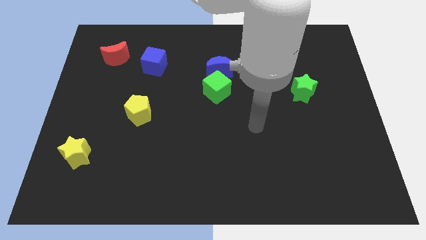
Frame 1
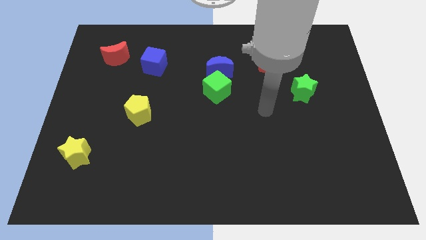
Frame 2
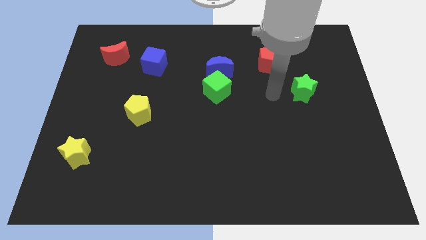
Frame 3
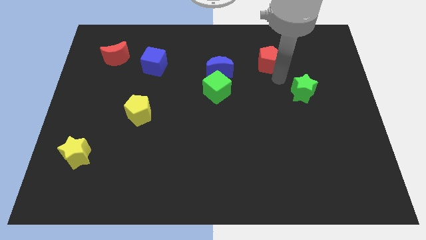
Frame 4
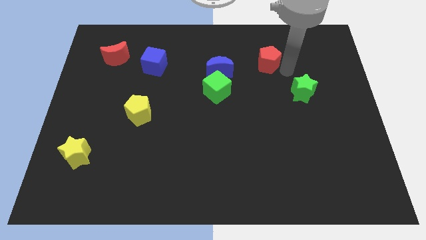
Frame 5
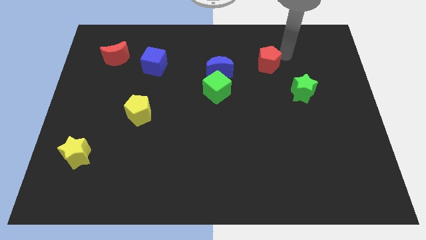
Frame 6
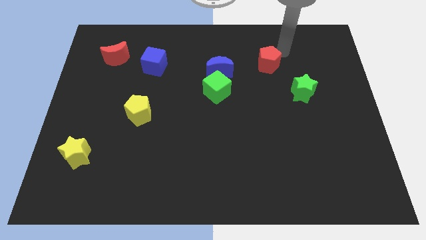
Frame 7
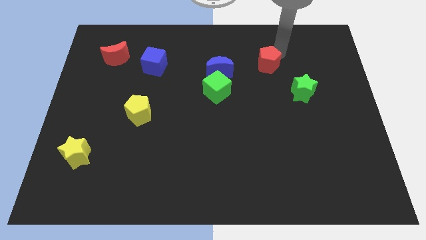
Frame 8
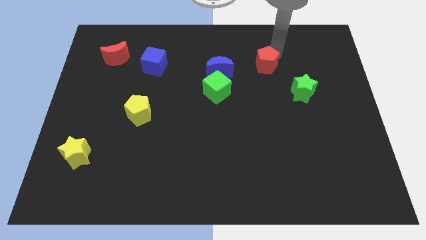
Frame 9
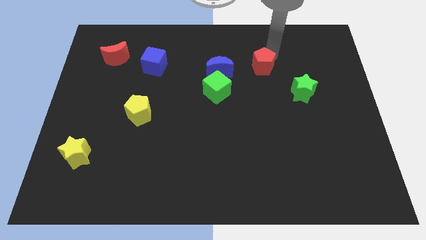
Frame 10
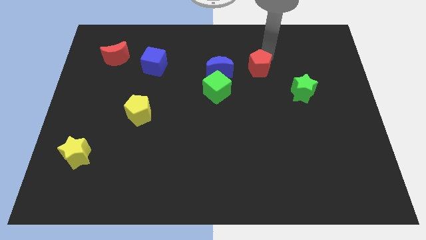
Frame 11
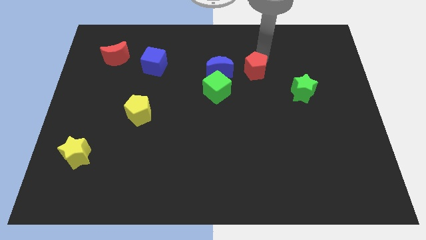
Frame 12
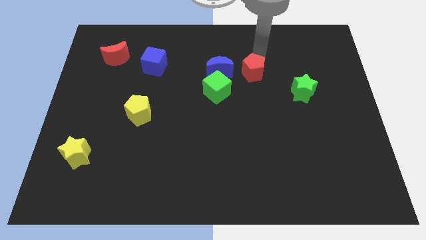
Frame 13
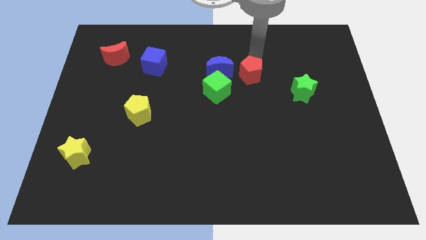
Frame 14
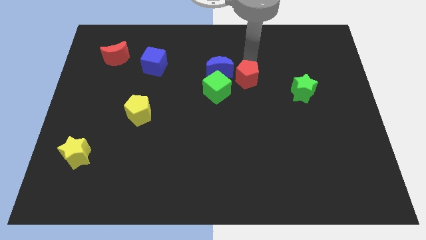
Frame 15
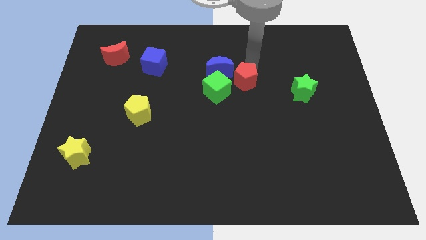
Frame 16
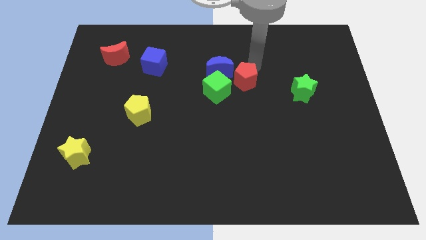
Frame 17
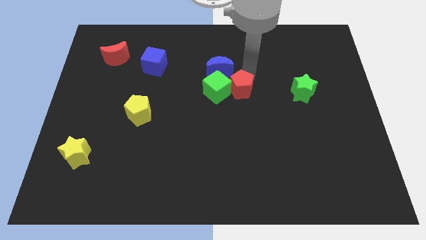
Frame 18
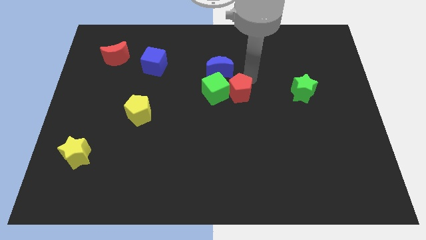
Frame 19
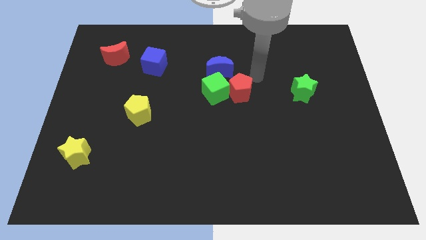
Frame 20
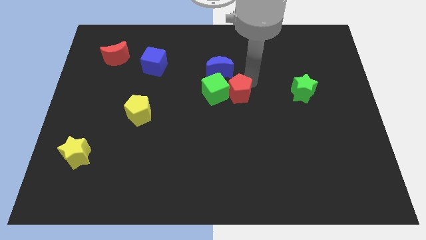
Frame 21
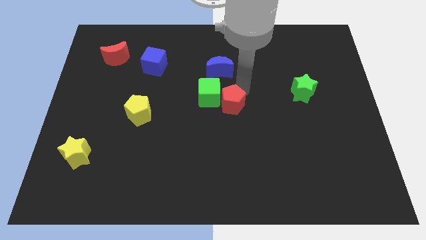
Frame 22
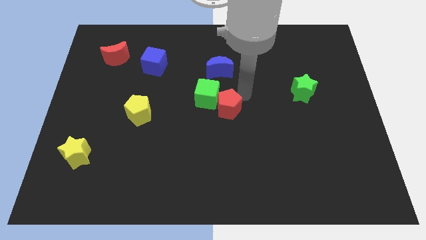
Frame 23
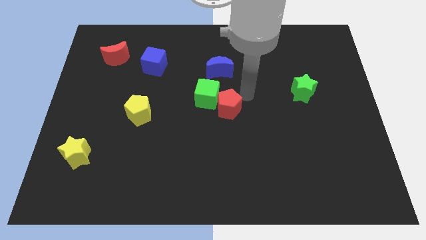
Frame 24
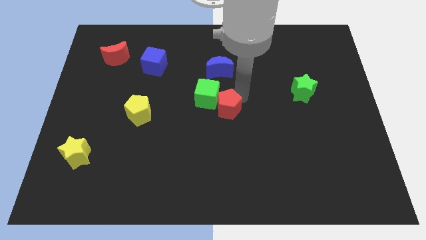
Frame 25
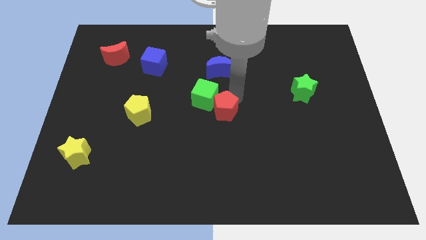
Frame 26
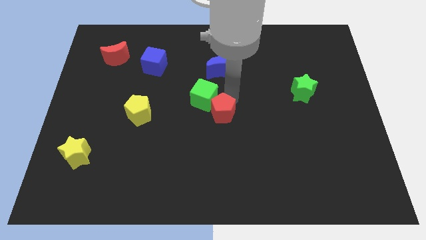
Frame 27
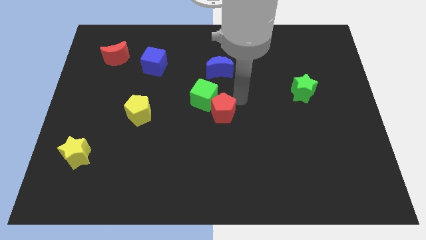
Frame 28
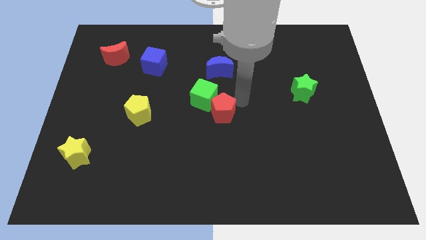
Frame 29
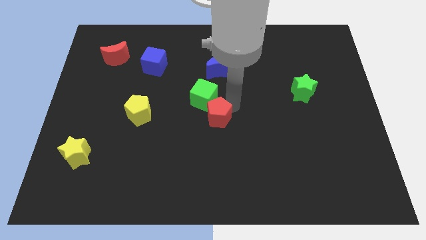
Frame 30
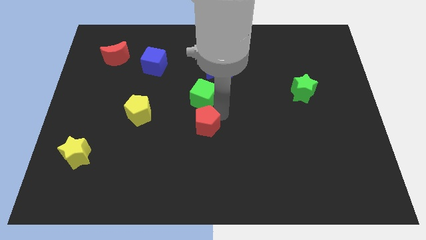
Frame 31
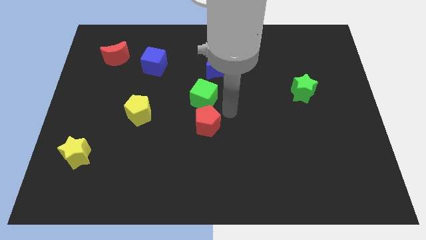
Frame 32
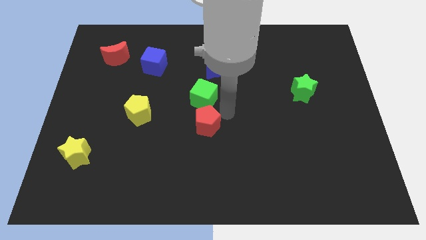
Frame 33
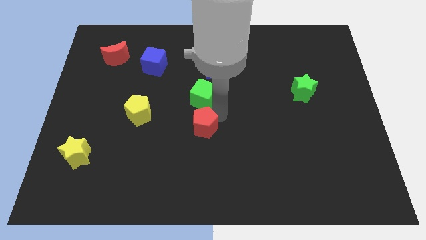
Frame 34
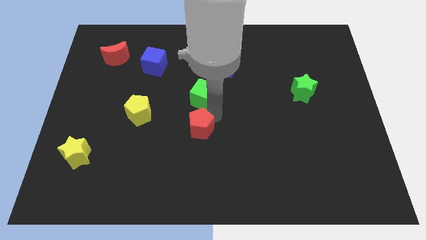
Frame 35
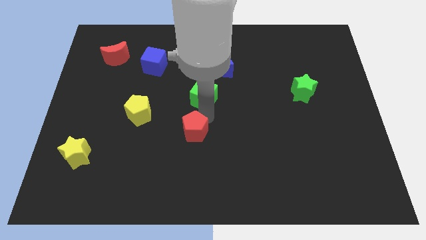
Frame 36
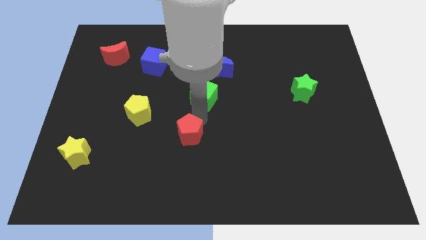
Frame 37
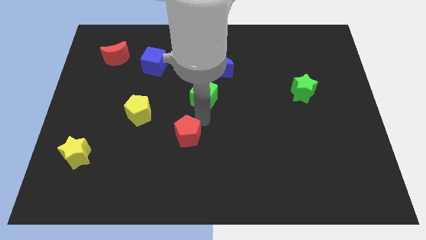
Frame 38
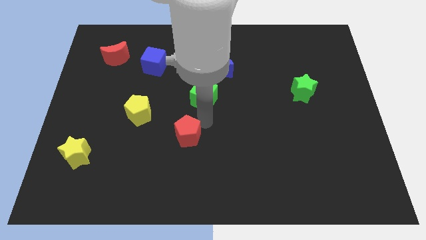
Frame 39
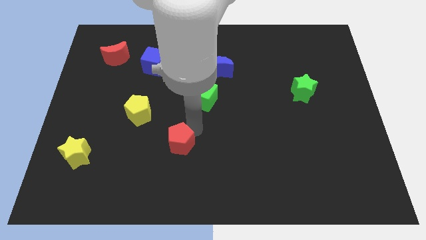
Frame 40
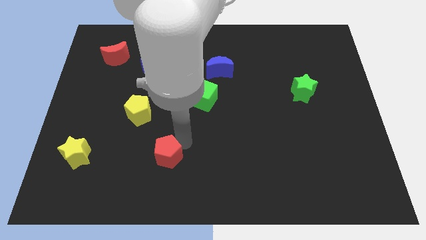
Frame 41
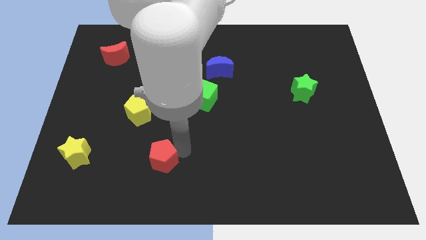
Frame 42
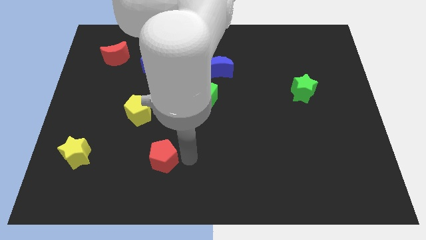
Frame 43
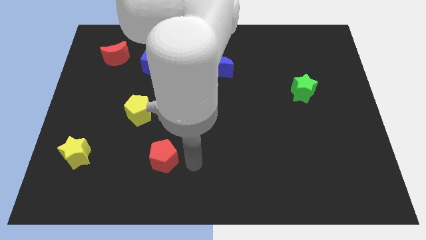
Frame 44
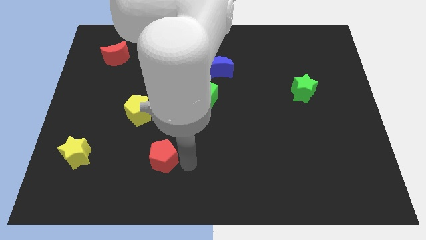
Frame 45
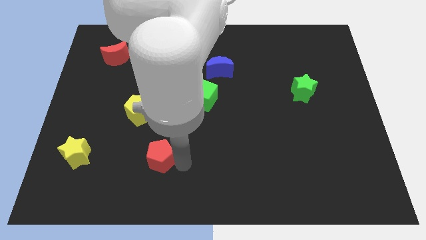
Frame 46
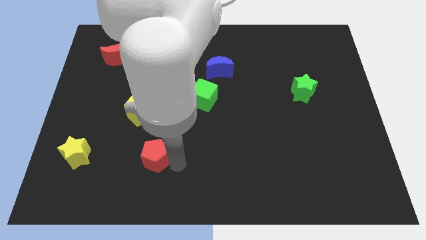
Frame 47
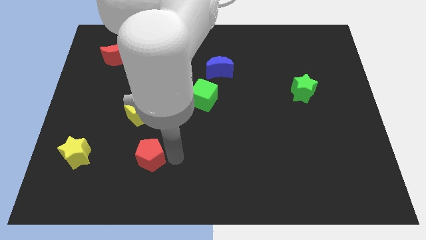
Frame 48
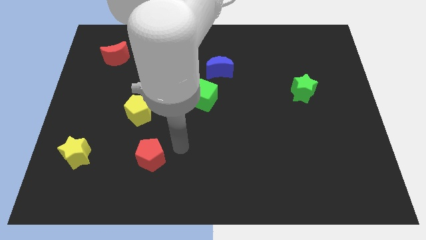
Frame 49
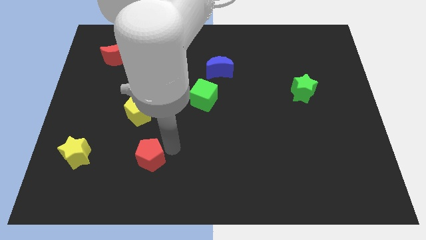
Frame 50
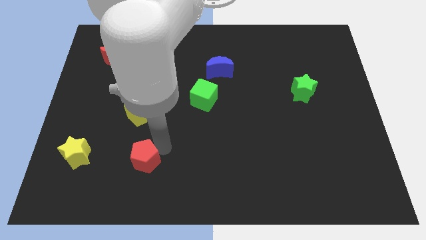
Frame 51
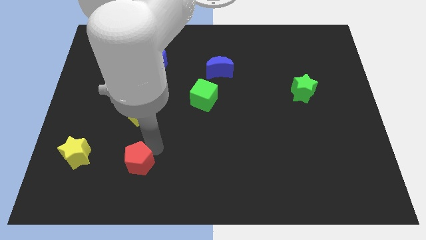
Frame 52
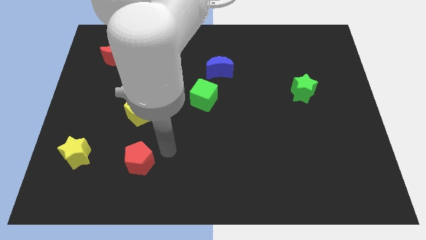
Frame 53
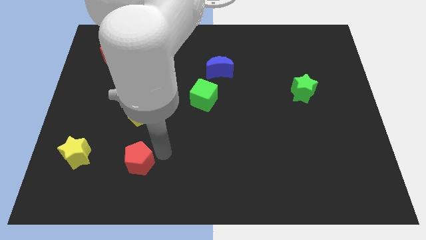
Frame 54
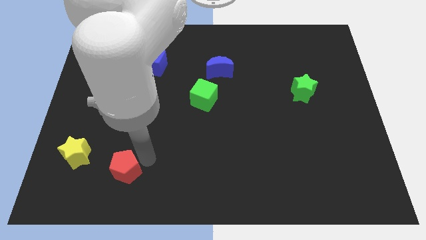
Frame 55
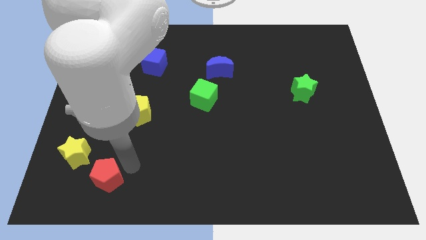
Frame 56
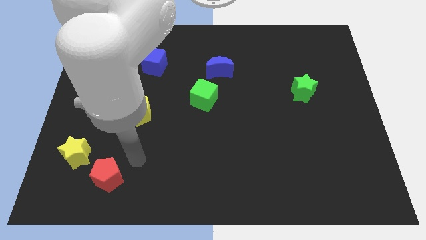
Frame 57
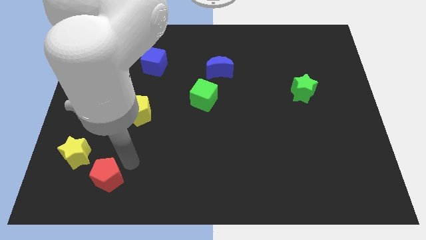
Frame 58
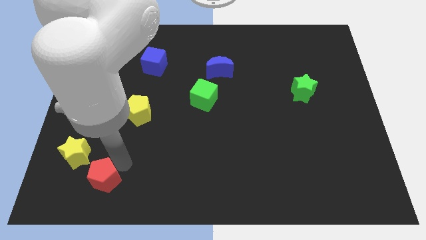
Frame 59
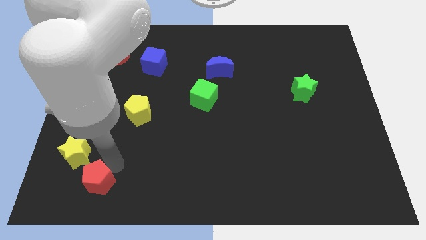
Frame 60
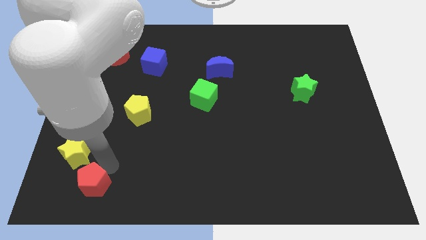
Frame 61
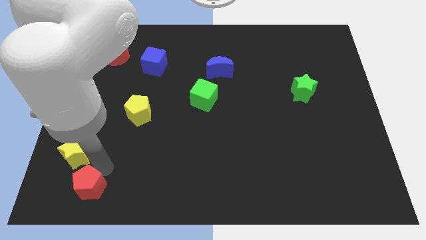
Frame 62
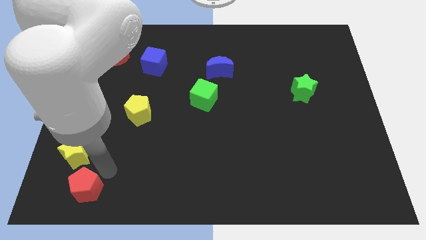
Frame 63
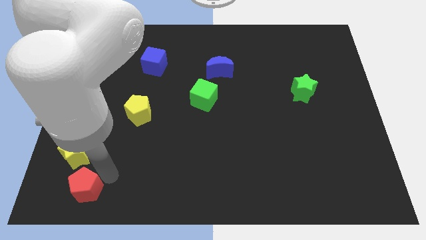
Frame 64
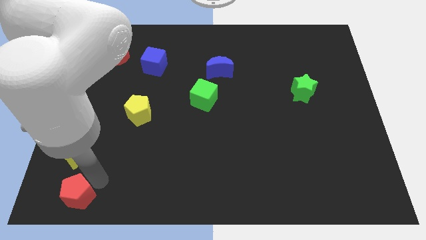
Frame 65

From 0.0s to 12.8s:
put the red pentagon to the bottom left
